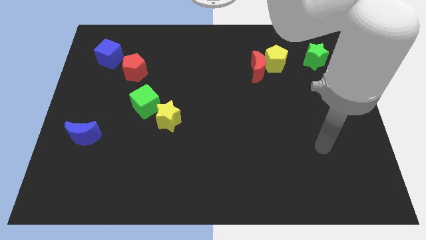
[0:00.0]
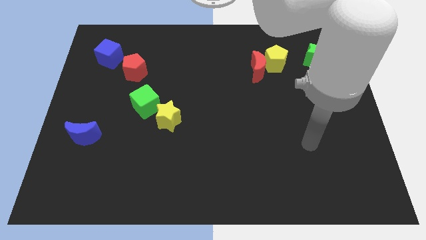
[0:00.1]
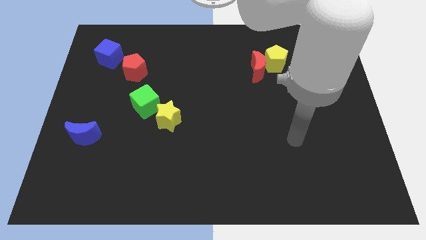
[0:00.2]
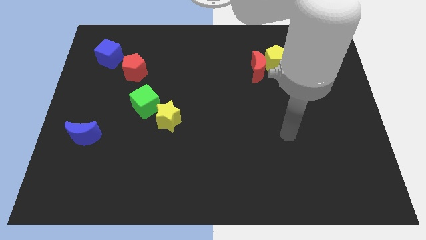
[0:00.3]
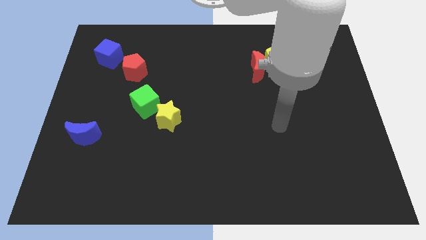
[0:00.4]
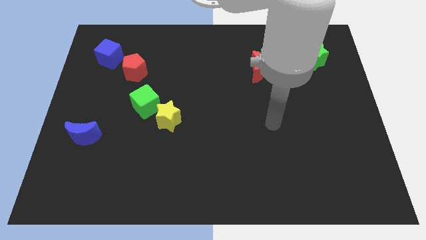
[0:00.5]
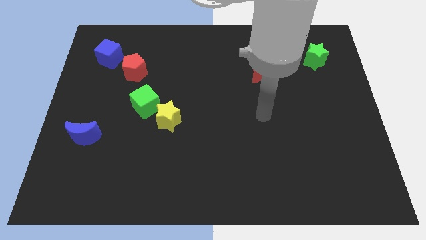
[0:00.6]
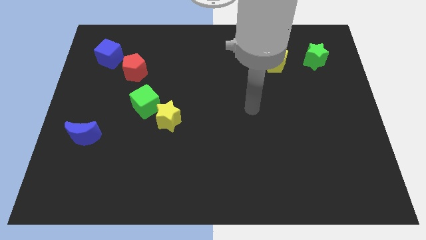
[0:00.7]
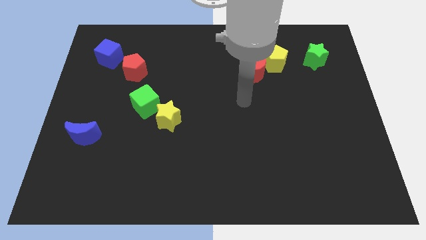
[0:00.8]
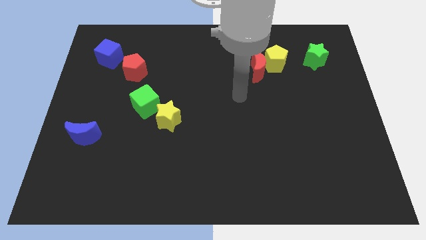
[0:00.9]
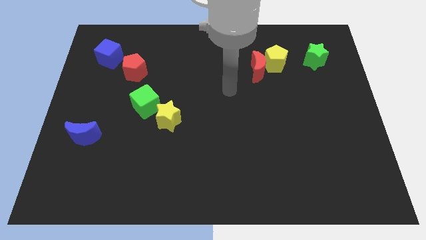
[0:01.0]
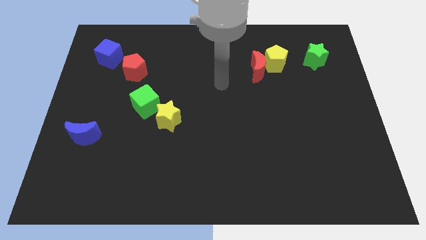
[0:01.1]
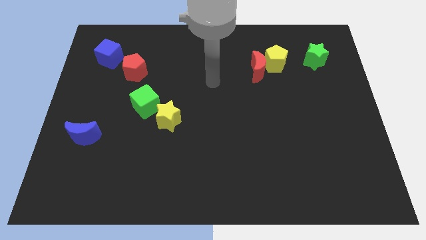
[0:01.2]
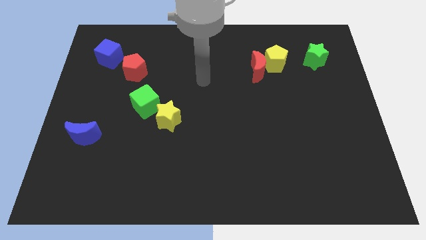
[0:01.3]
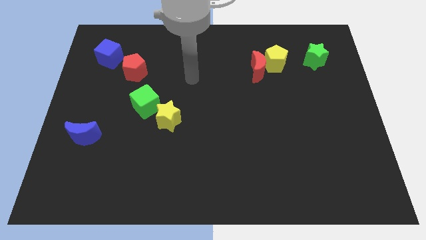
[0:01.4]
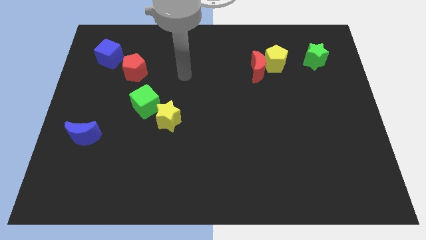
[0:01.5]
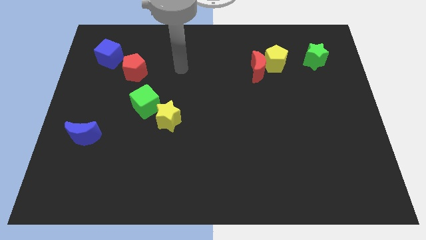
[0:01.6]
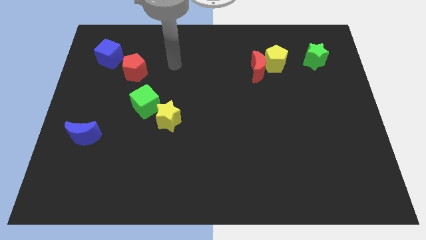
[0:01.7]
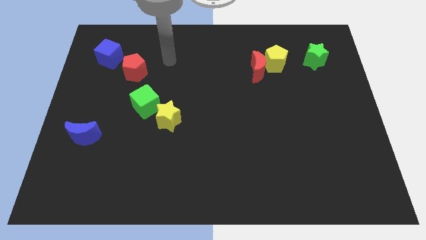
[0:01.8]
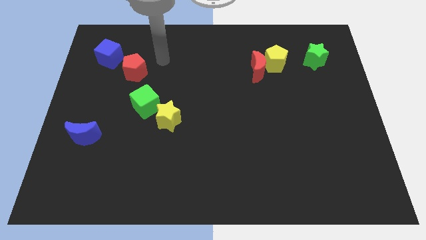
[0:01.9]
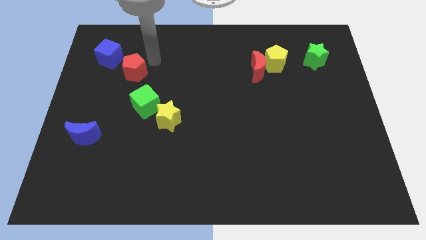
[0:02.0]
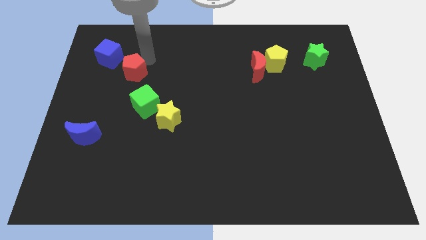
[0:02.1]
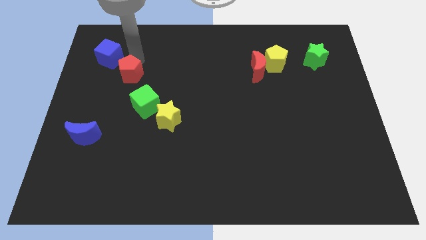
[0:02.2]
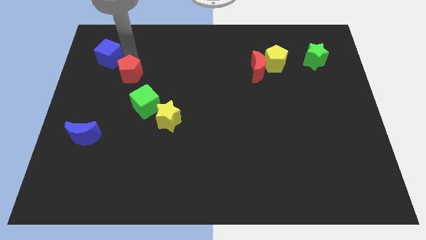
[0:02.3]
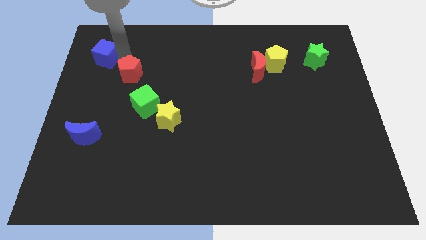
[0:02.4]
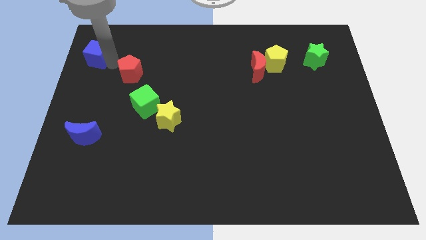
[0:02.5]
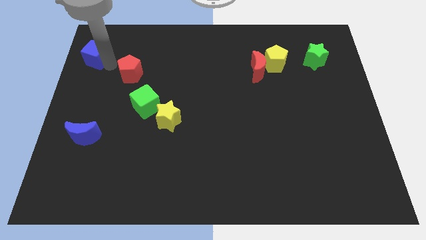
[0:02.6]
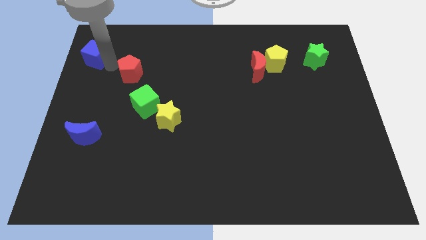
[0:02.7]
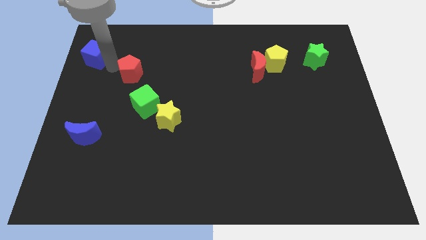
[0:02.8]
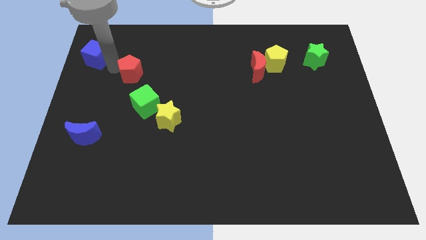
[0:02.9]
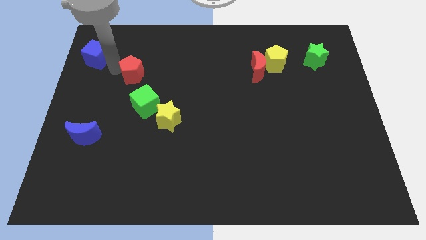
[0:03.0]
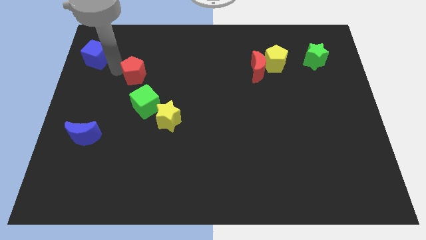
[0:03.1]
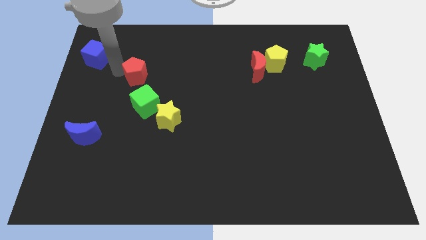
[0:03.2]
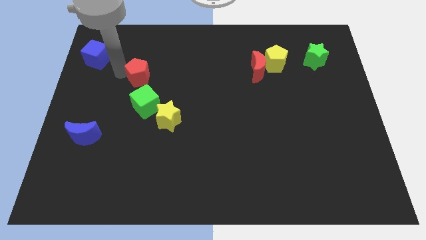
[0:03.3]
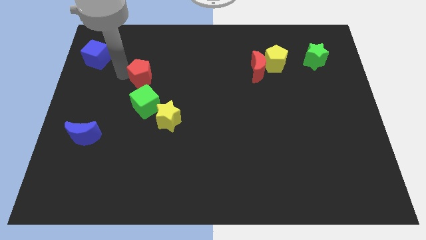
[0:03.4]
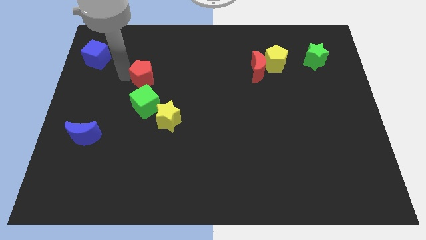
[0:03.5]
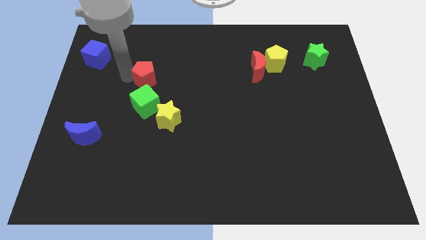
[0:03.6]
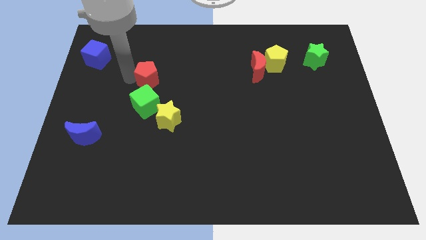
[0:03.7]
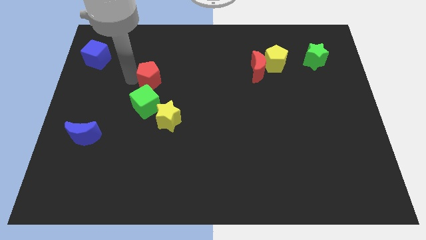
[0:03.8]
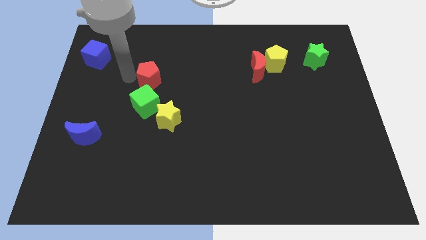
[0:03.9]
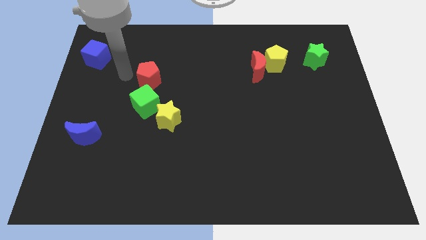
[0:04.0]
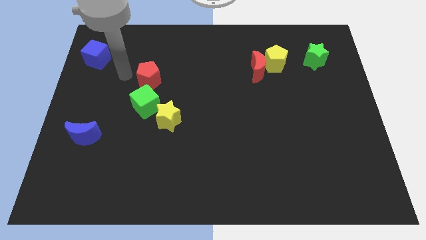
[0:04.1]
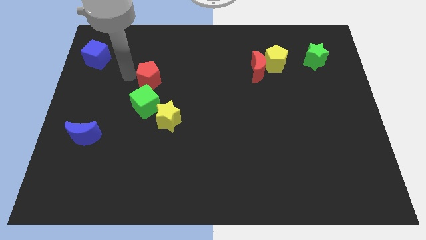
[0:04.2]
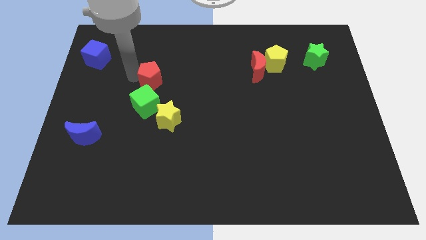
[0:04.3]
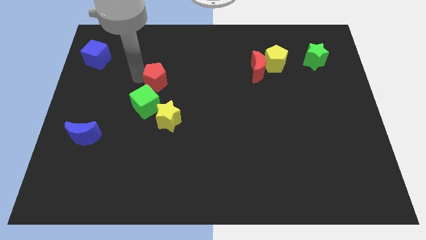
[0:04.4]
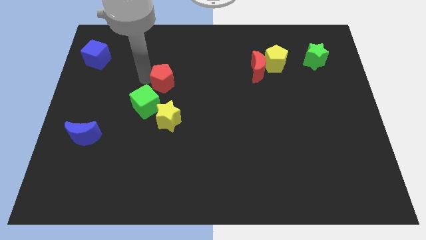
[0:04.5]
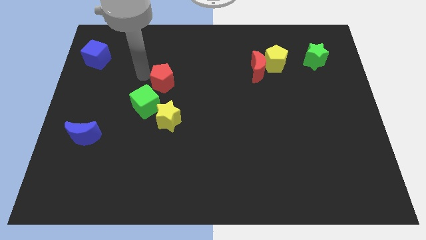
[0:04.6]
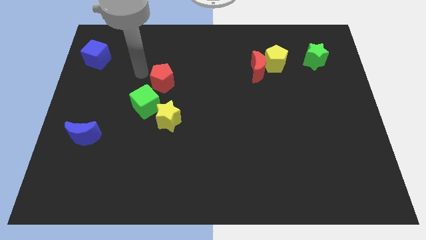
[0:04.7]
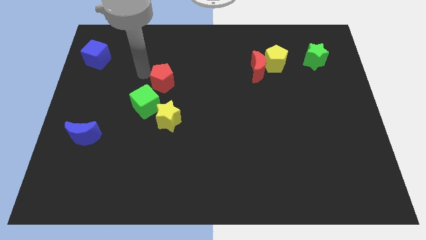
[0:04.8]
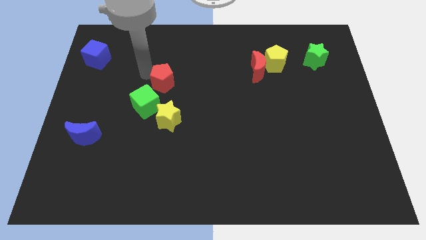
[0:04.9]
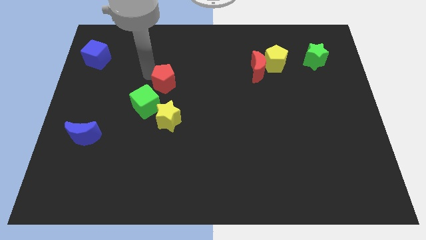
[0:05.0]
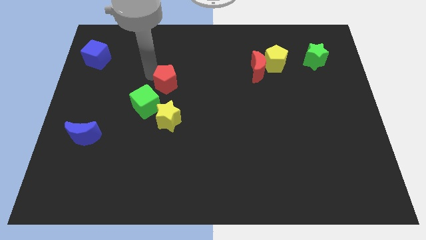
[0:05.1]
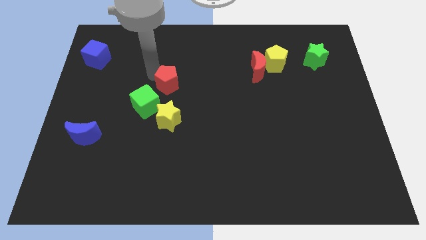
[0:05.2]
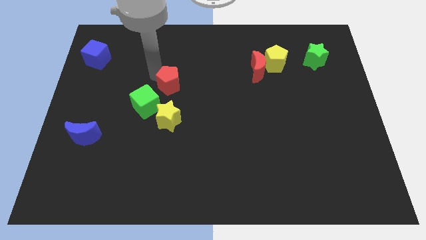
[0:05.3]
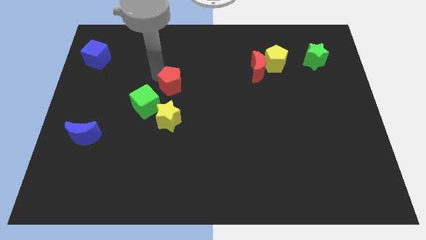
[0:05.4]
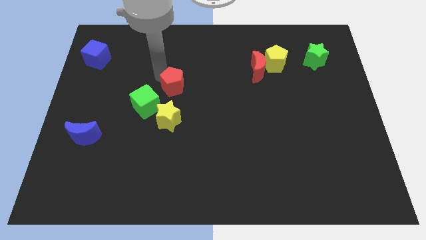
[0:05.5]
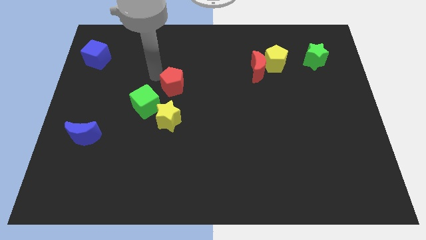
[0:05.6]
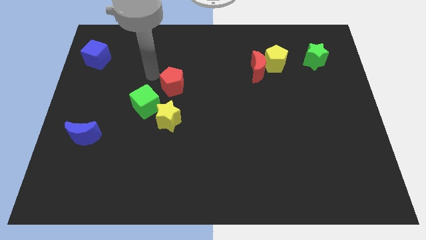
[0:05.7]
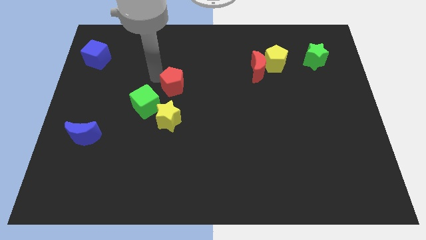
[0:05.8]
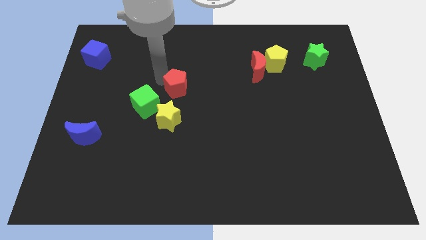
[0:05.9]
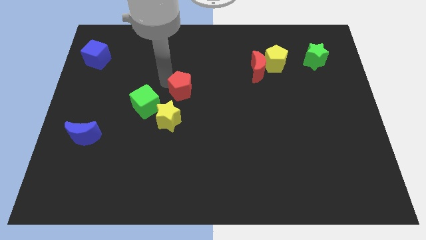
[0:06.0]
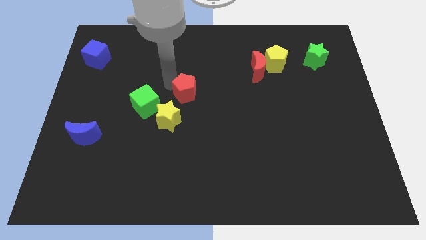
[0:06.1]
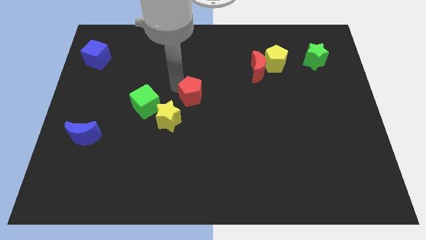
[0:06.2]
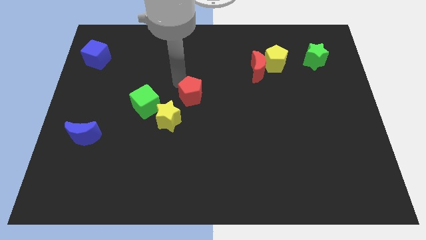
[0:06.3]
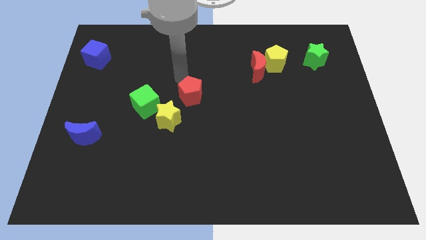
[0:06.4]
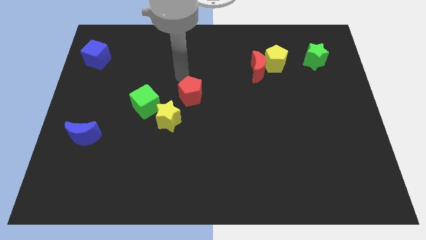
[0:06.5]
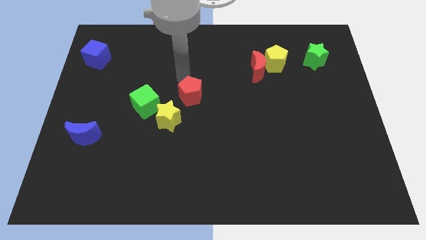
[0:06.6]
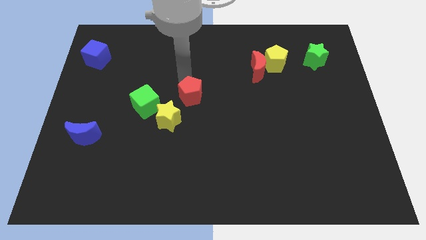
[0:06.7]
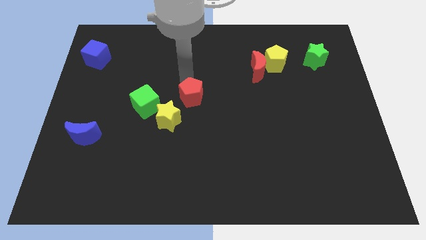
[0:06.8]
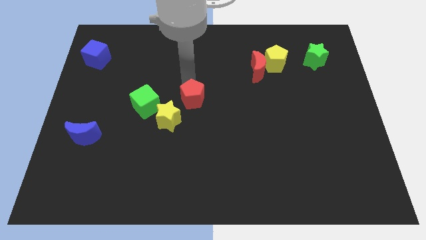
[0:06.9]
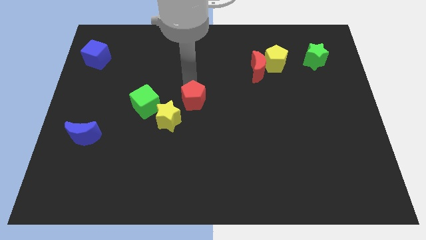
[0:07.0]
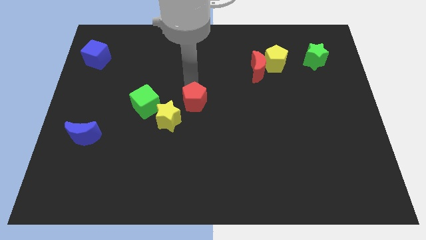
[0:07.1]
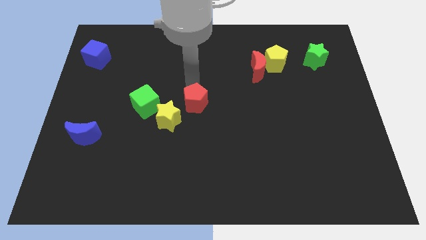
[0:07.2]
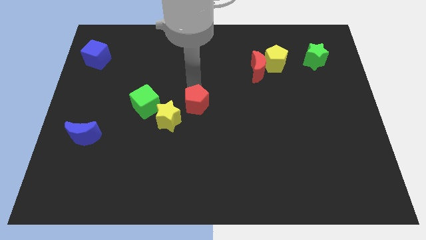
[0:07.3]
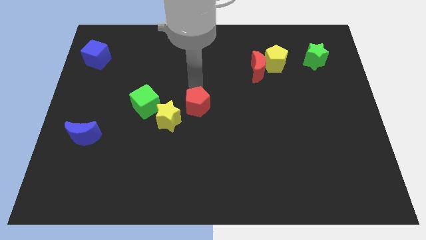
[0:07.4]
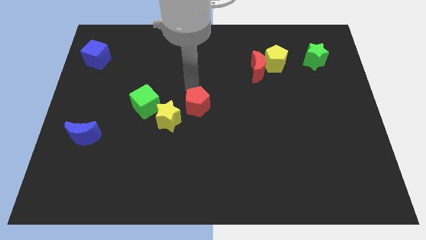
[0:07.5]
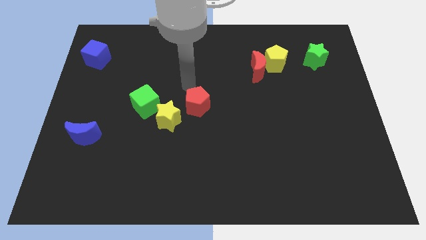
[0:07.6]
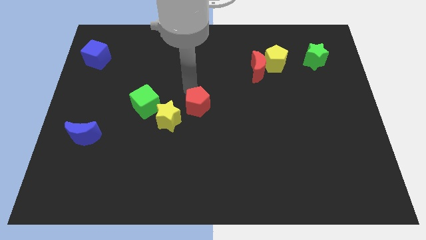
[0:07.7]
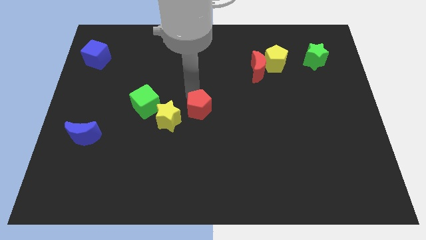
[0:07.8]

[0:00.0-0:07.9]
push the red pentagon down and to the right diagonally

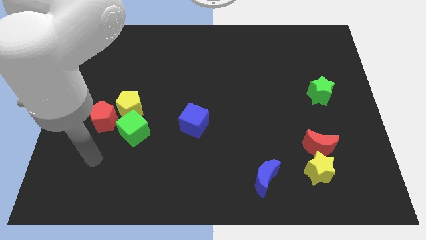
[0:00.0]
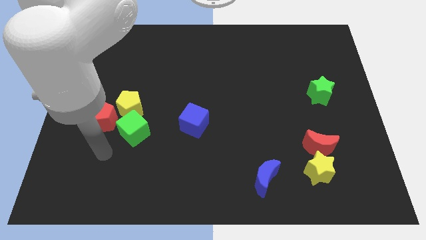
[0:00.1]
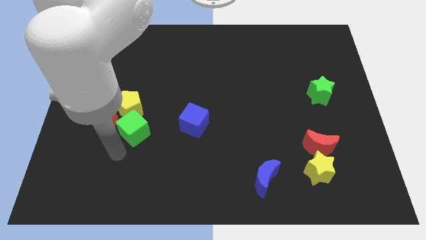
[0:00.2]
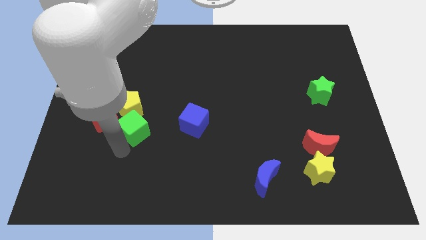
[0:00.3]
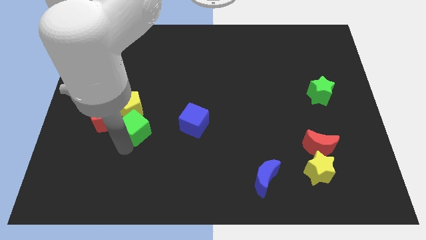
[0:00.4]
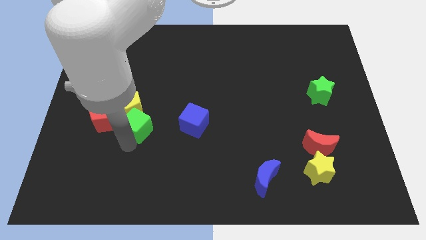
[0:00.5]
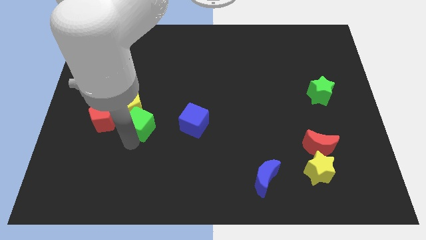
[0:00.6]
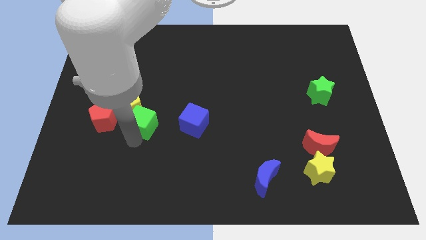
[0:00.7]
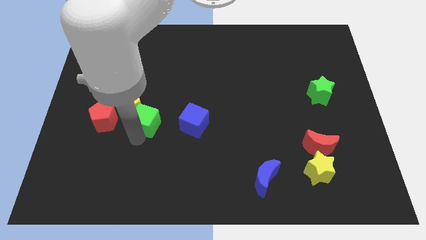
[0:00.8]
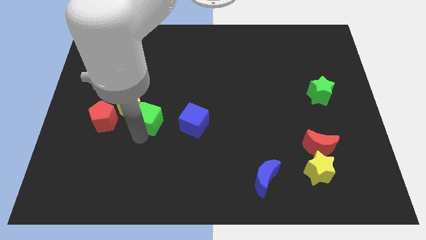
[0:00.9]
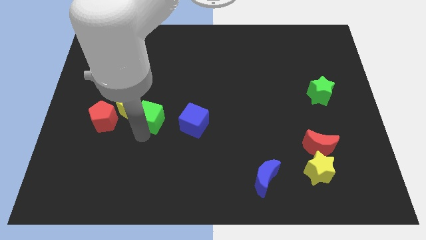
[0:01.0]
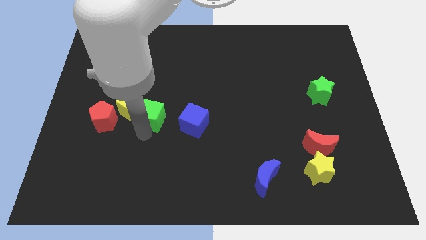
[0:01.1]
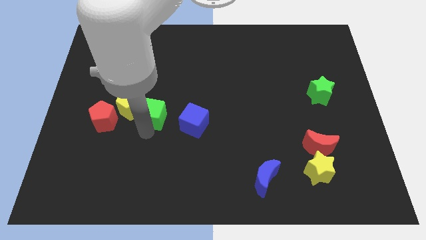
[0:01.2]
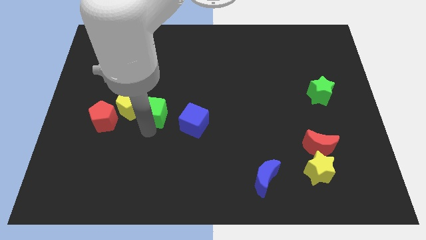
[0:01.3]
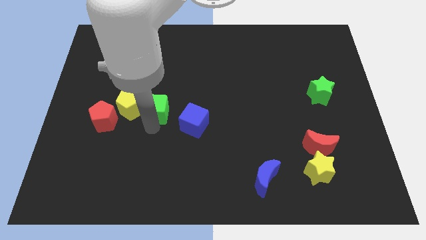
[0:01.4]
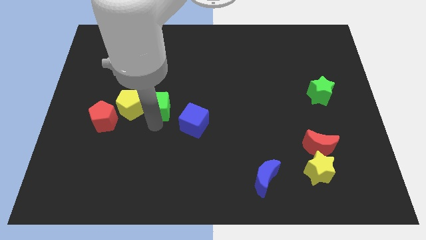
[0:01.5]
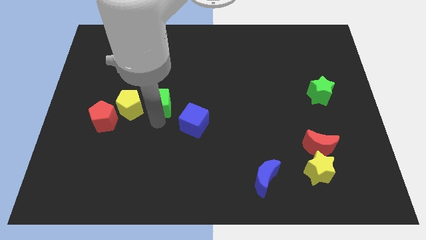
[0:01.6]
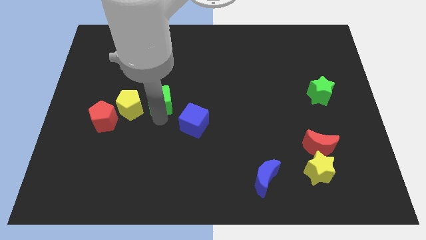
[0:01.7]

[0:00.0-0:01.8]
slide the green cube up a little bit
